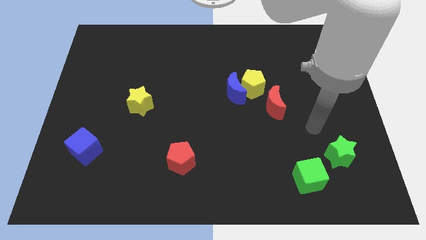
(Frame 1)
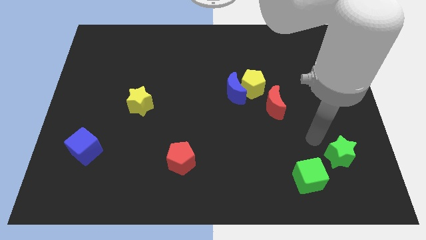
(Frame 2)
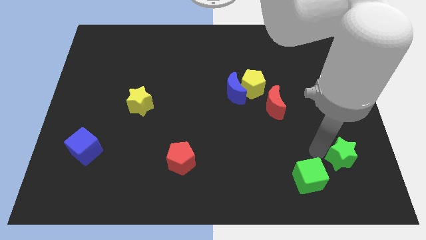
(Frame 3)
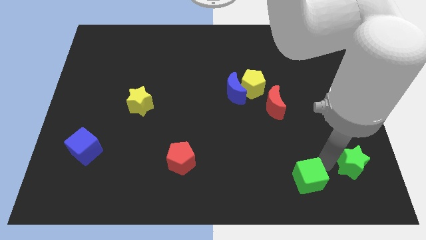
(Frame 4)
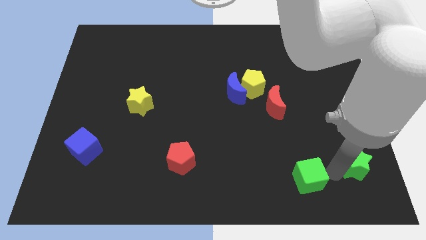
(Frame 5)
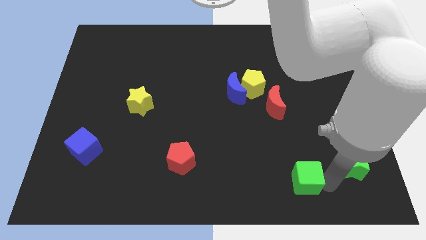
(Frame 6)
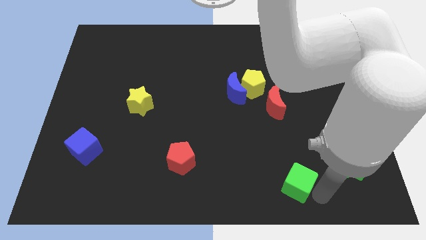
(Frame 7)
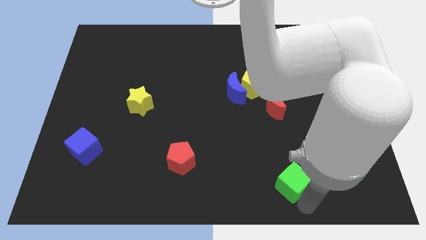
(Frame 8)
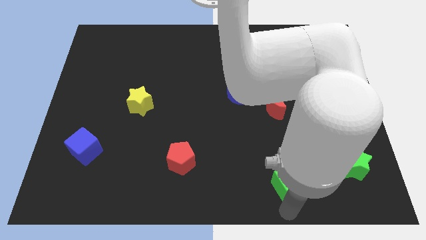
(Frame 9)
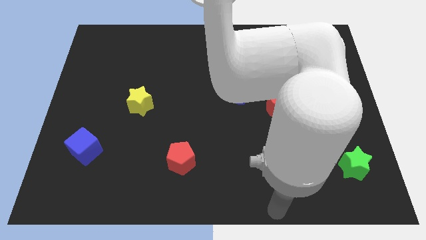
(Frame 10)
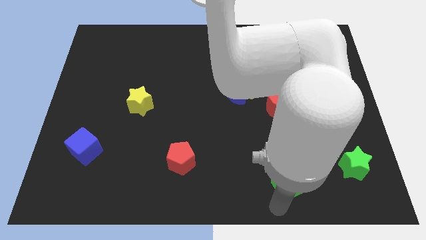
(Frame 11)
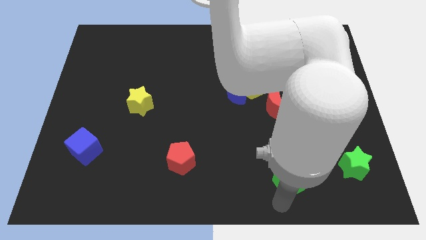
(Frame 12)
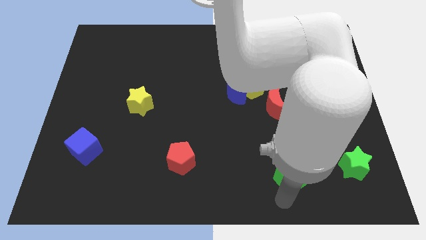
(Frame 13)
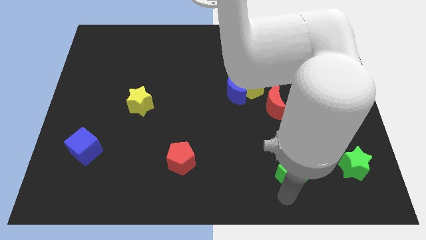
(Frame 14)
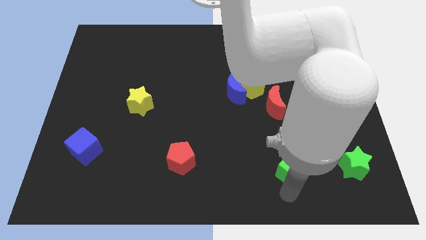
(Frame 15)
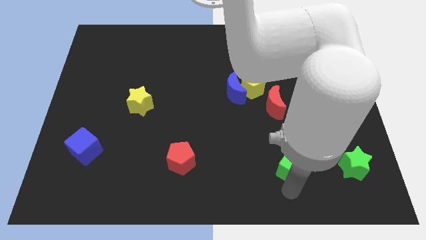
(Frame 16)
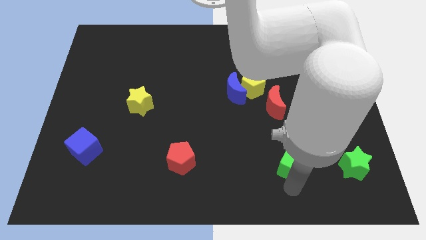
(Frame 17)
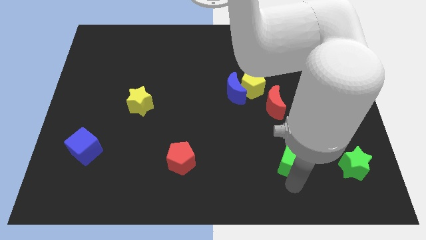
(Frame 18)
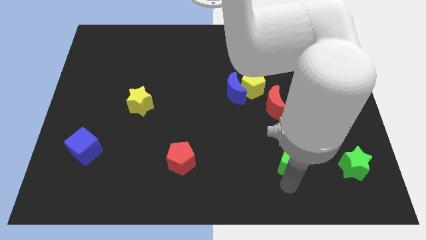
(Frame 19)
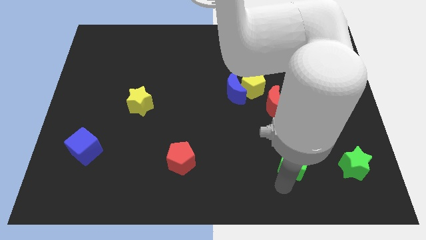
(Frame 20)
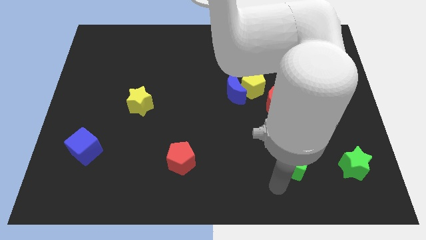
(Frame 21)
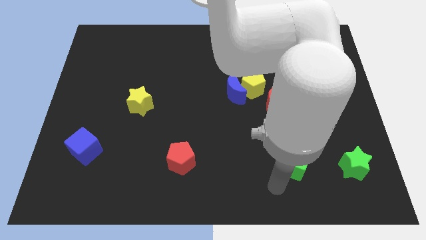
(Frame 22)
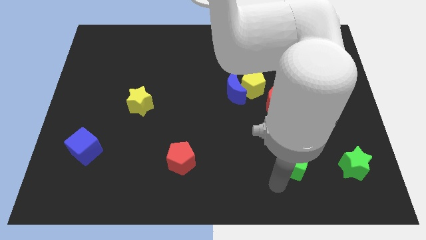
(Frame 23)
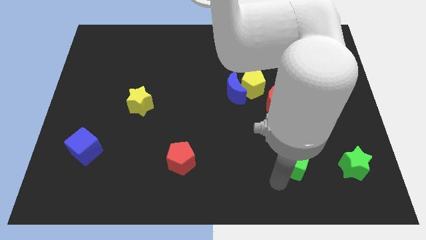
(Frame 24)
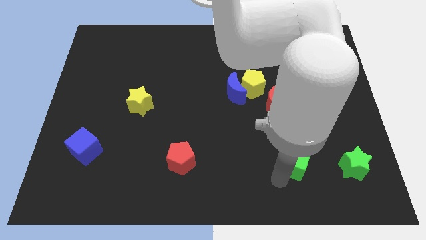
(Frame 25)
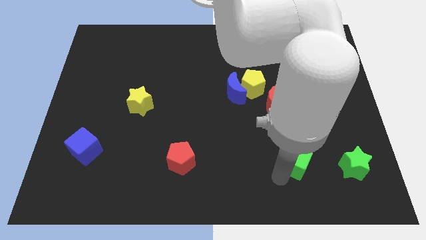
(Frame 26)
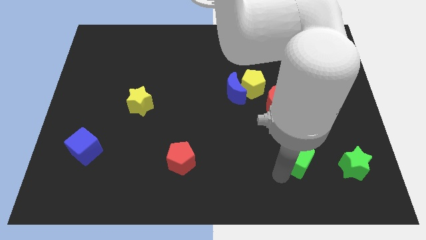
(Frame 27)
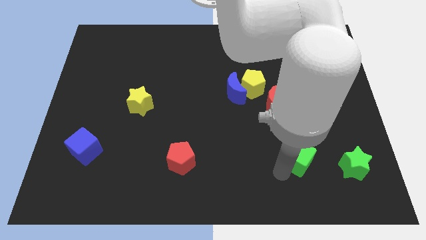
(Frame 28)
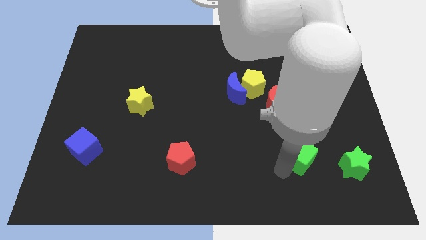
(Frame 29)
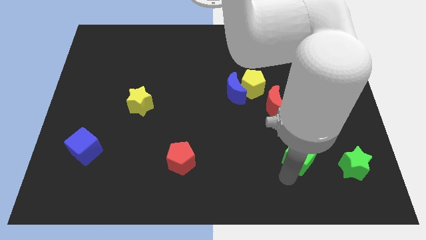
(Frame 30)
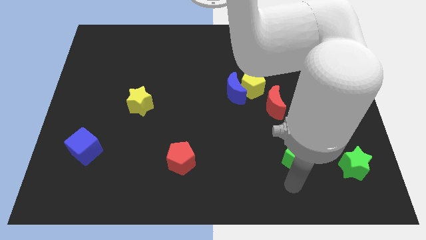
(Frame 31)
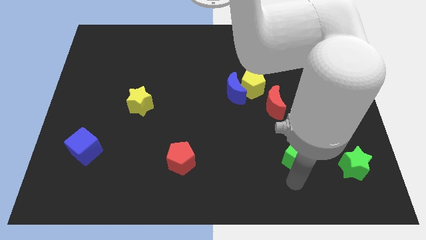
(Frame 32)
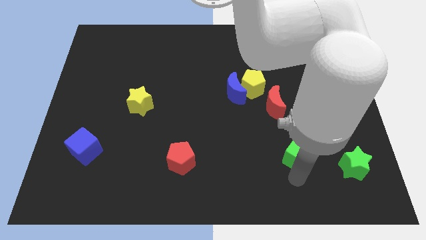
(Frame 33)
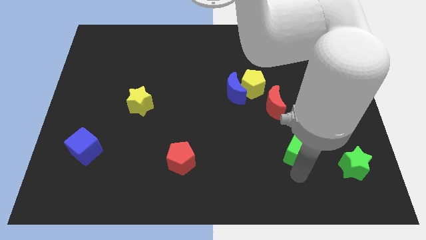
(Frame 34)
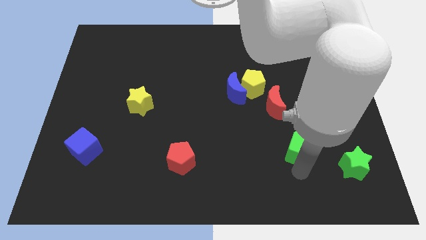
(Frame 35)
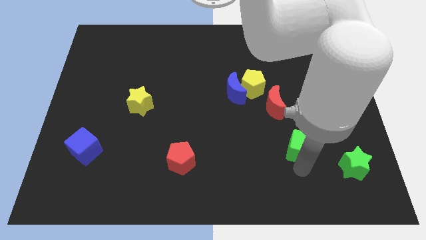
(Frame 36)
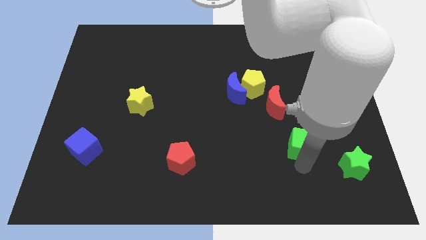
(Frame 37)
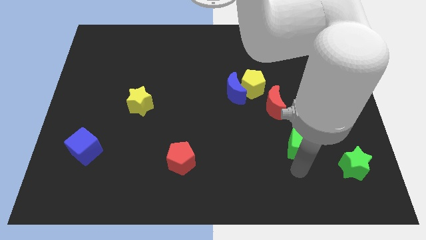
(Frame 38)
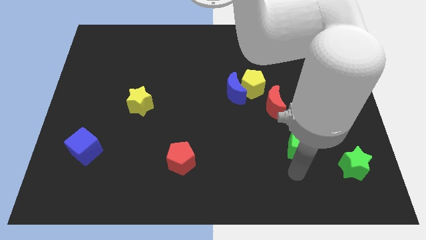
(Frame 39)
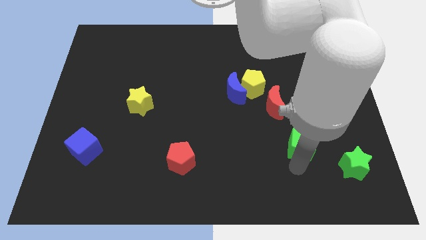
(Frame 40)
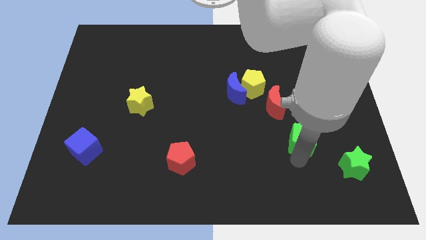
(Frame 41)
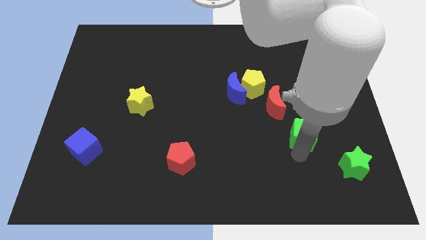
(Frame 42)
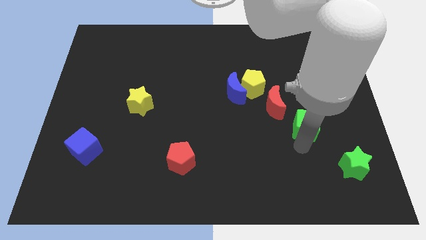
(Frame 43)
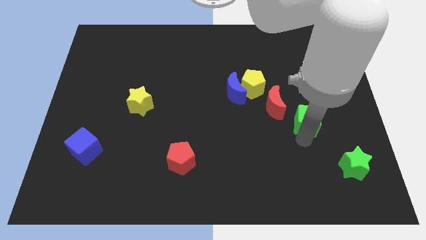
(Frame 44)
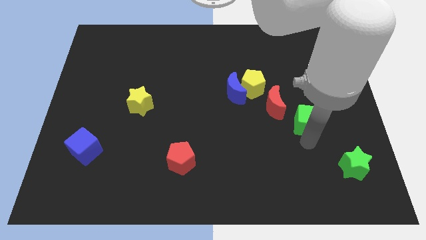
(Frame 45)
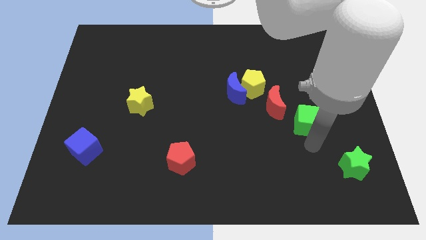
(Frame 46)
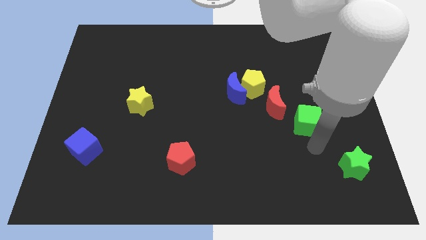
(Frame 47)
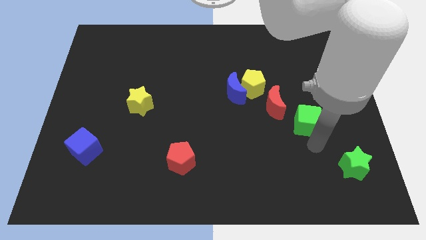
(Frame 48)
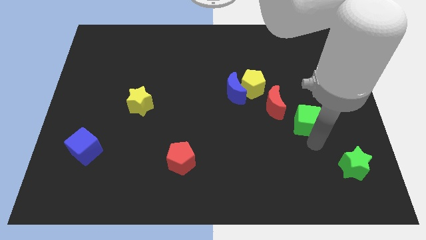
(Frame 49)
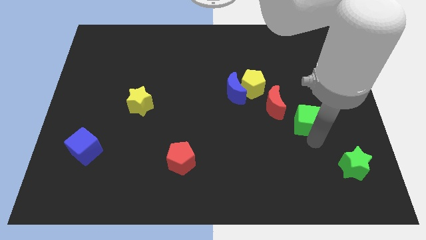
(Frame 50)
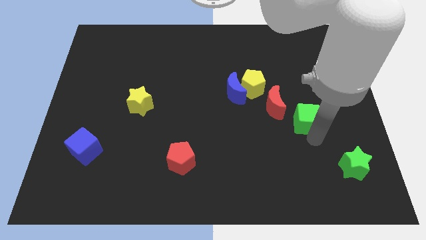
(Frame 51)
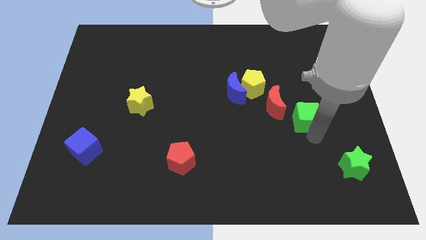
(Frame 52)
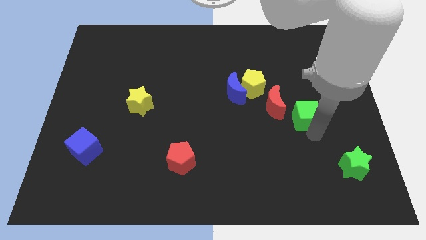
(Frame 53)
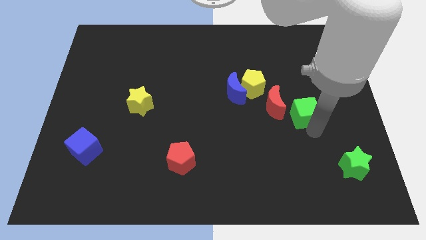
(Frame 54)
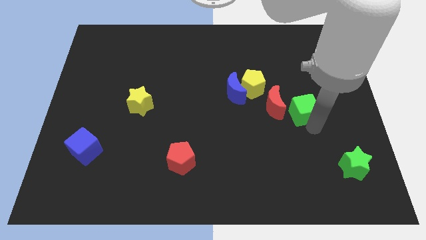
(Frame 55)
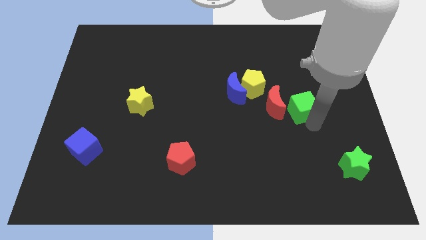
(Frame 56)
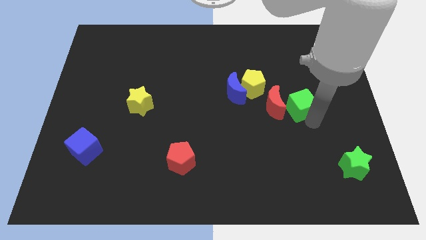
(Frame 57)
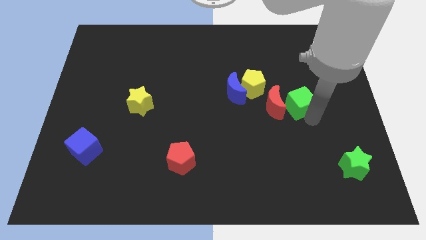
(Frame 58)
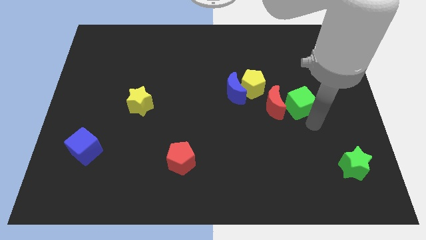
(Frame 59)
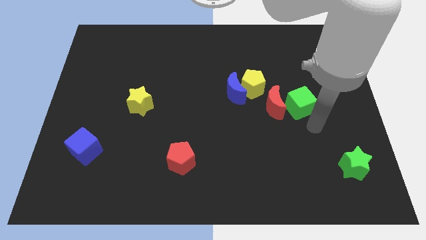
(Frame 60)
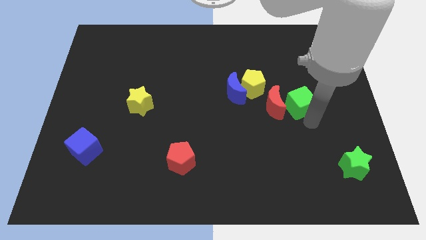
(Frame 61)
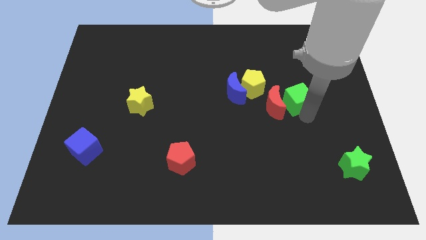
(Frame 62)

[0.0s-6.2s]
slide the green cube up

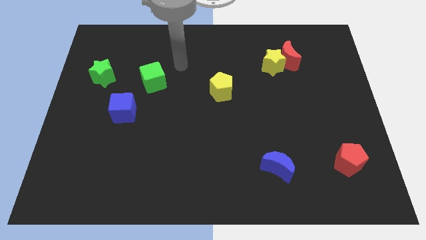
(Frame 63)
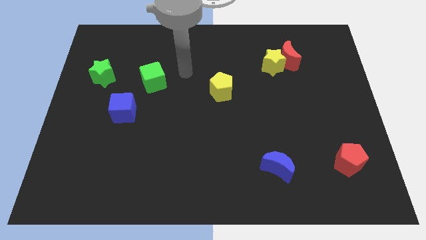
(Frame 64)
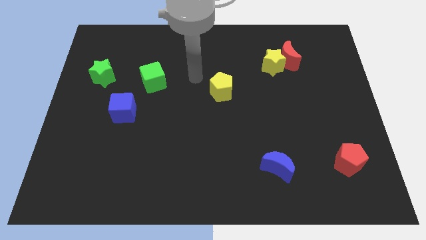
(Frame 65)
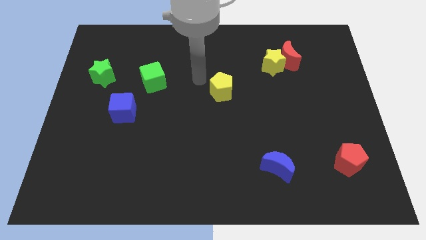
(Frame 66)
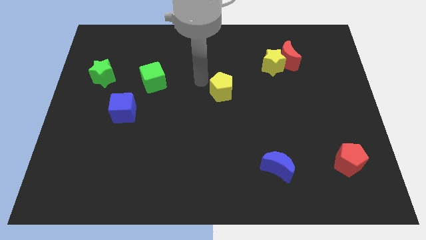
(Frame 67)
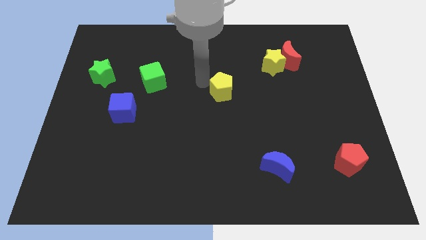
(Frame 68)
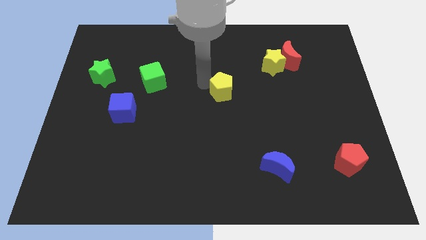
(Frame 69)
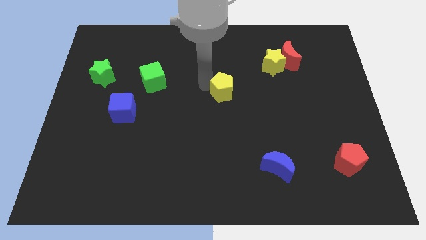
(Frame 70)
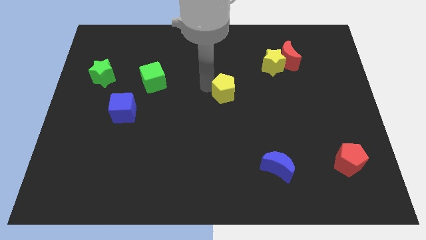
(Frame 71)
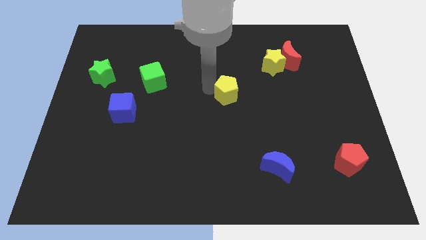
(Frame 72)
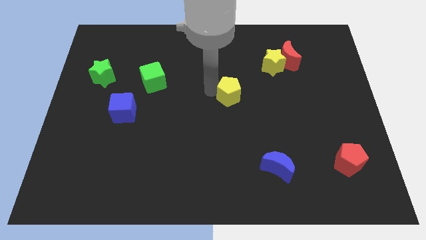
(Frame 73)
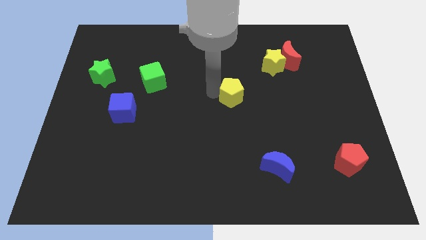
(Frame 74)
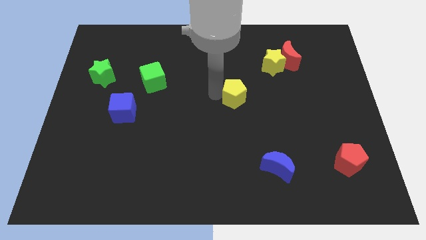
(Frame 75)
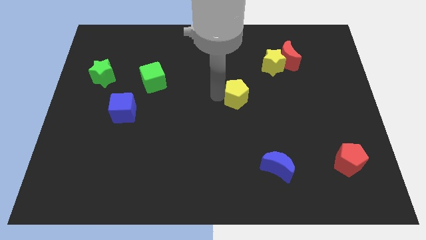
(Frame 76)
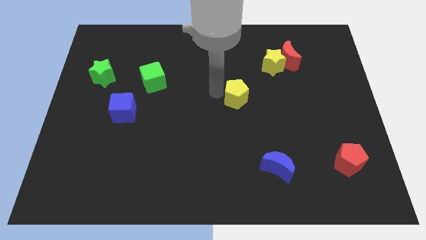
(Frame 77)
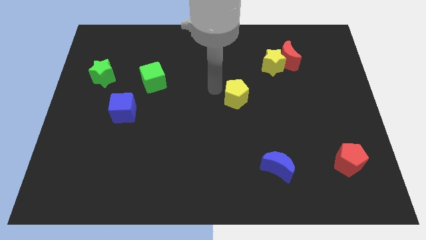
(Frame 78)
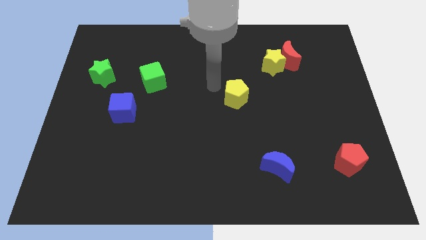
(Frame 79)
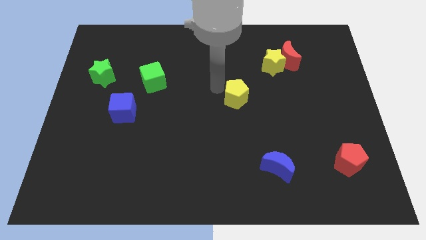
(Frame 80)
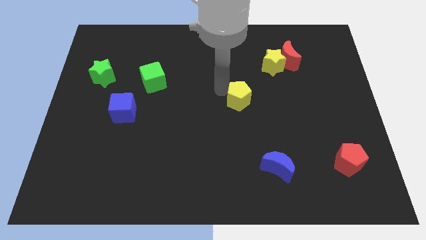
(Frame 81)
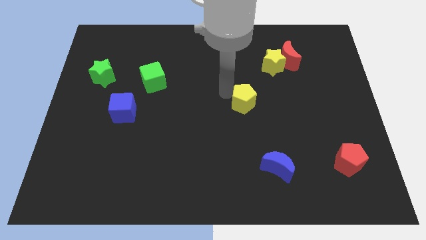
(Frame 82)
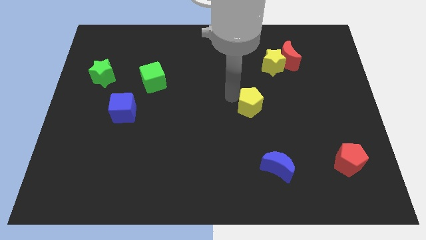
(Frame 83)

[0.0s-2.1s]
push the yellow pentagon slightly diagonally downwards and right
